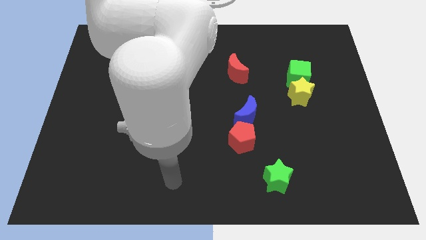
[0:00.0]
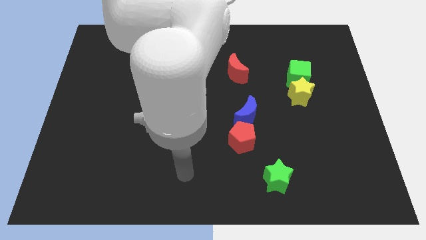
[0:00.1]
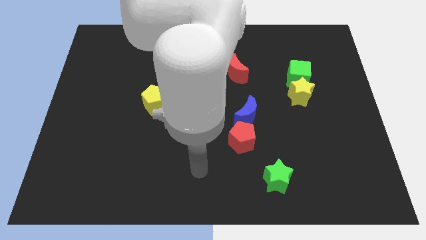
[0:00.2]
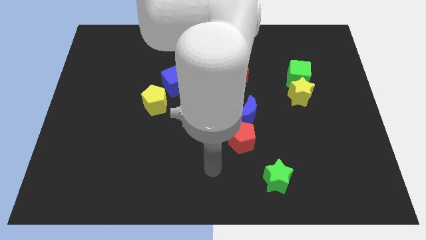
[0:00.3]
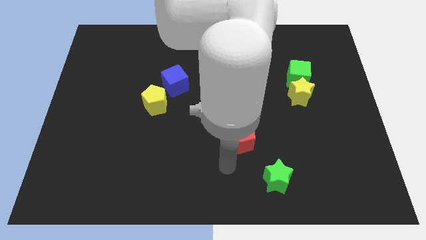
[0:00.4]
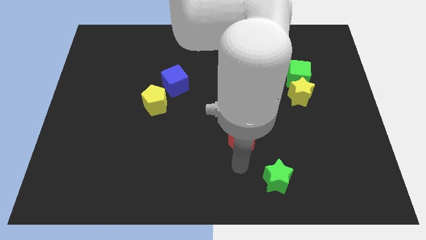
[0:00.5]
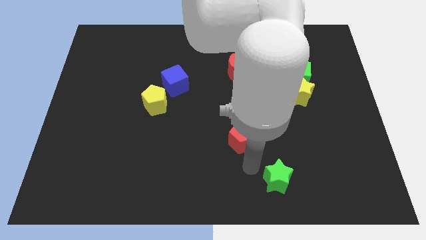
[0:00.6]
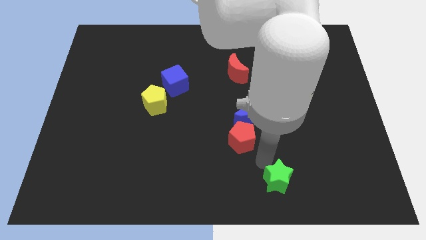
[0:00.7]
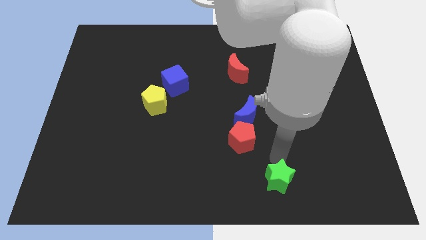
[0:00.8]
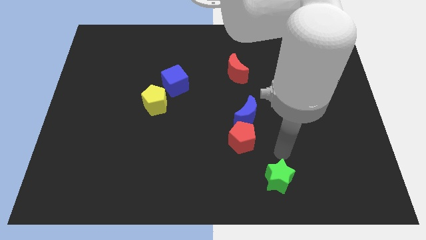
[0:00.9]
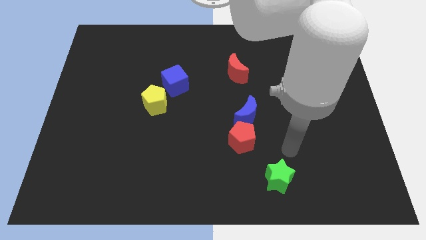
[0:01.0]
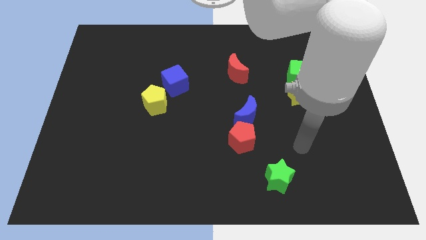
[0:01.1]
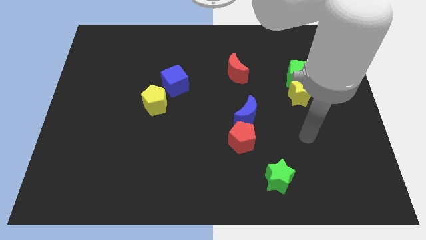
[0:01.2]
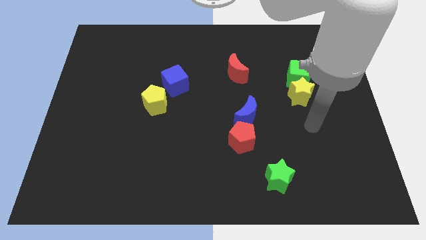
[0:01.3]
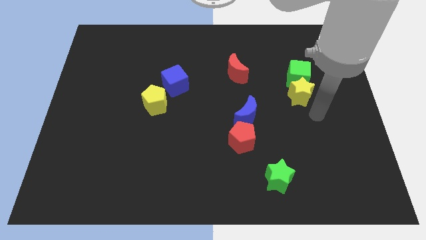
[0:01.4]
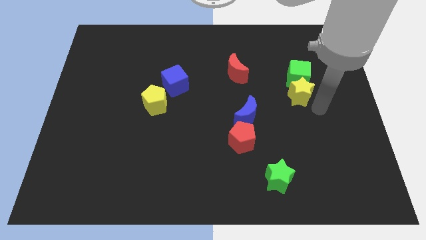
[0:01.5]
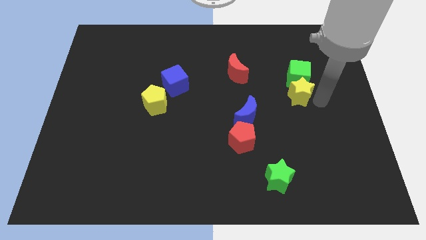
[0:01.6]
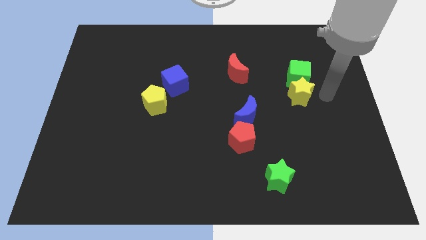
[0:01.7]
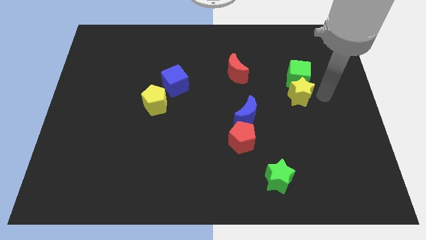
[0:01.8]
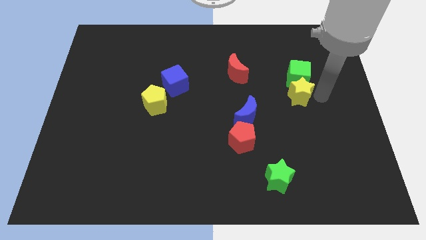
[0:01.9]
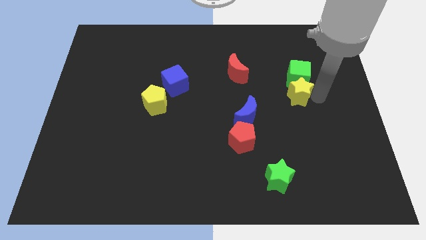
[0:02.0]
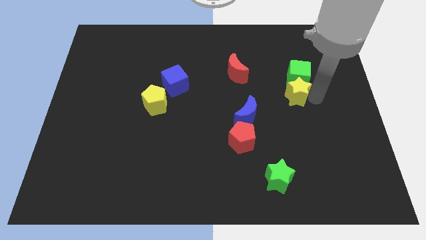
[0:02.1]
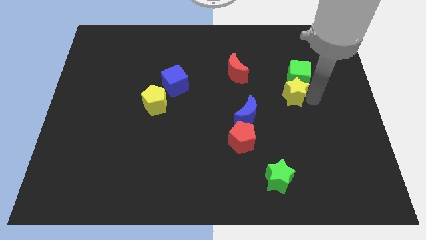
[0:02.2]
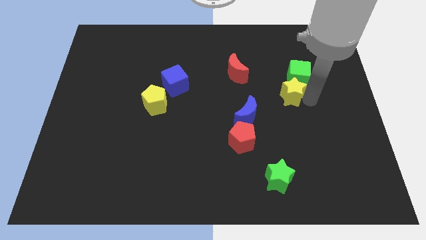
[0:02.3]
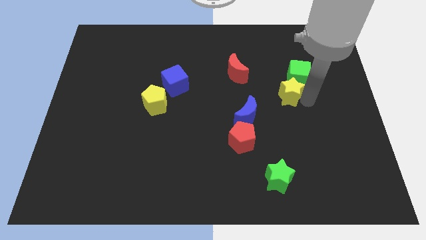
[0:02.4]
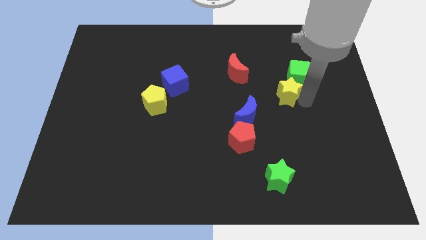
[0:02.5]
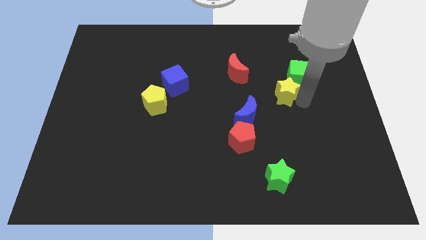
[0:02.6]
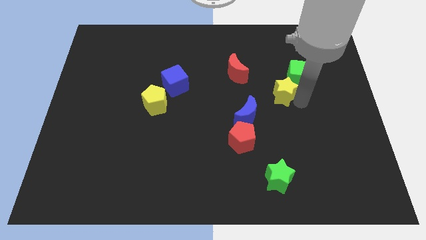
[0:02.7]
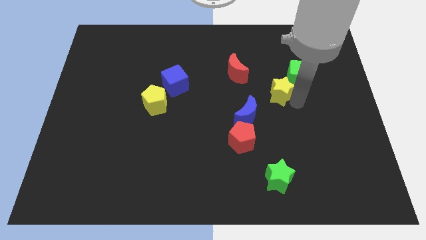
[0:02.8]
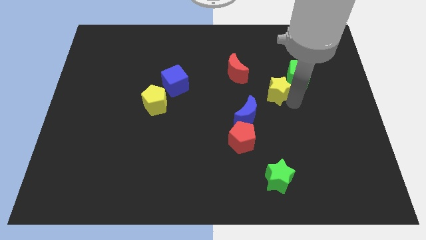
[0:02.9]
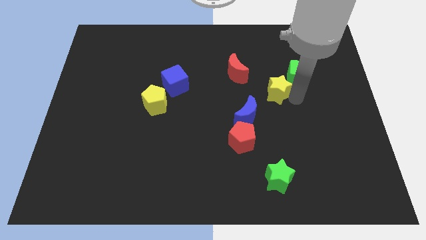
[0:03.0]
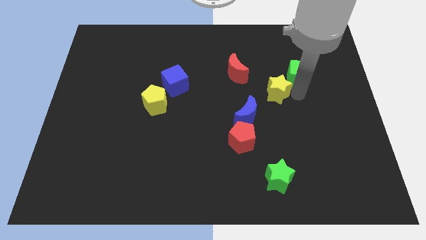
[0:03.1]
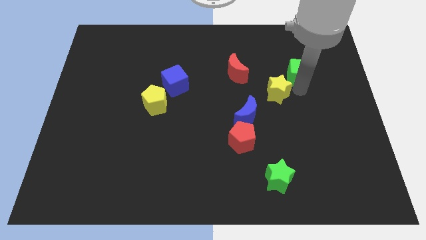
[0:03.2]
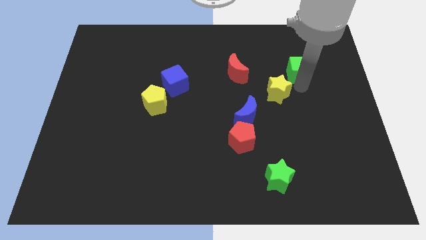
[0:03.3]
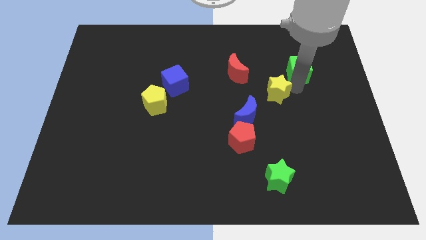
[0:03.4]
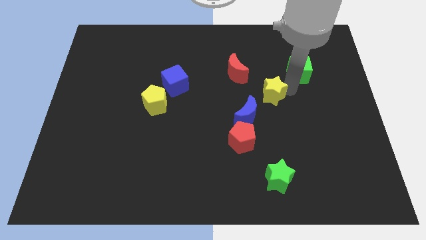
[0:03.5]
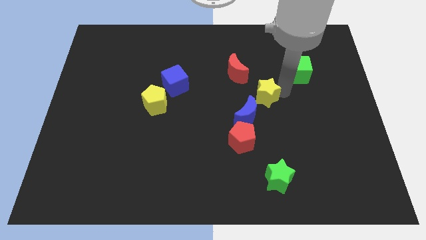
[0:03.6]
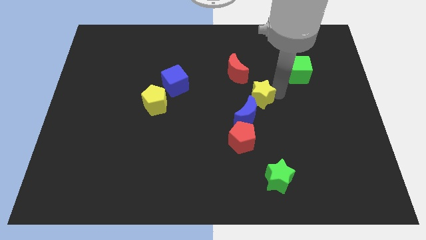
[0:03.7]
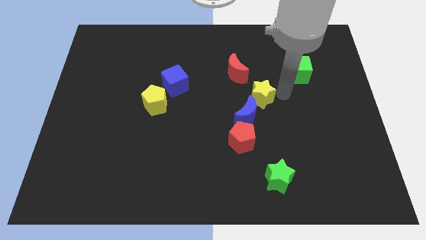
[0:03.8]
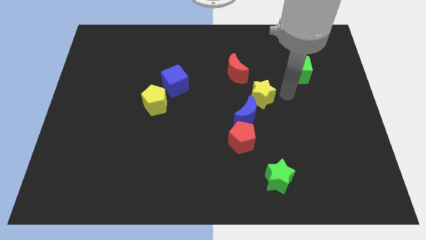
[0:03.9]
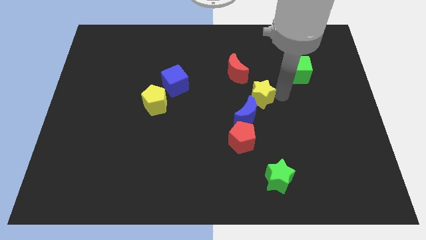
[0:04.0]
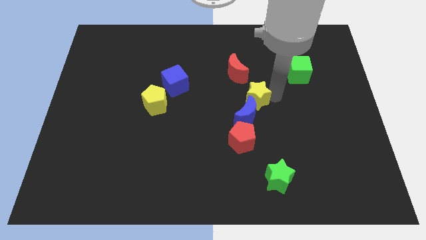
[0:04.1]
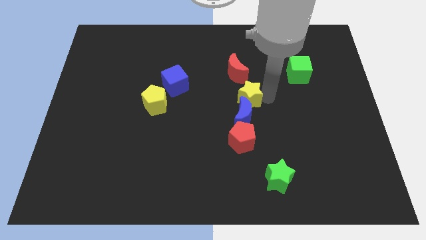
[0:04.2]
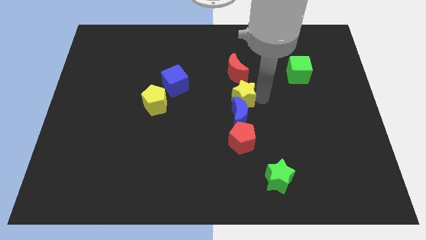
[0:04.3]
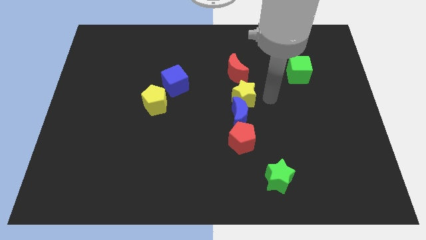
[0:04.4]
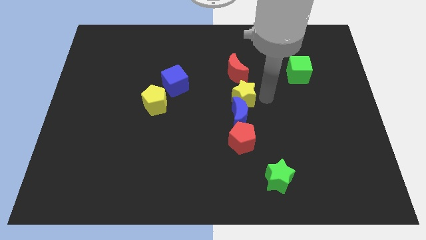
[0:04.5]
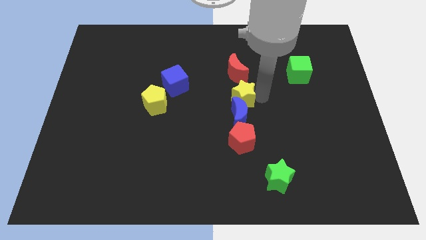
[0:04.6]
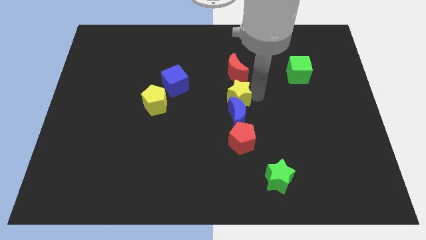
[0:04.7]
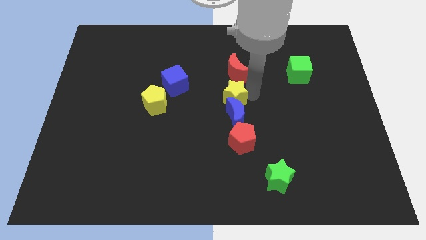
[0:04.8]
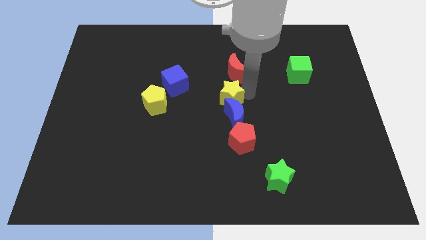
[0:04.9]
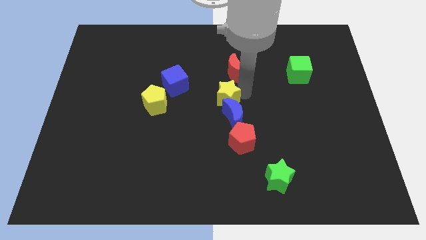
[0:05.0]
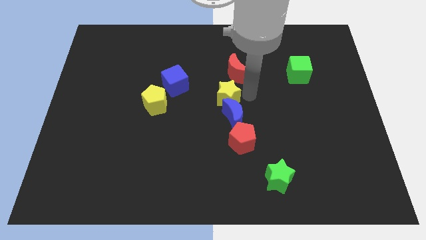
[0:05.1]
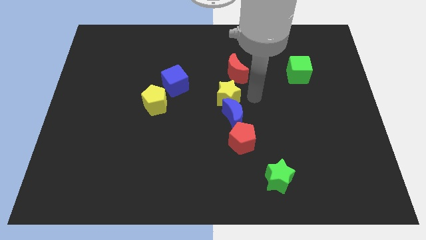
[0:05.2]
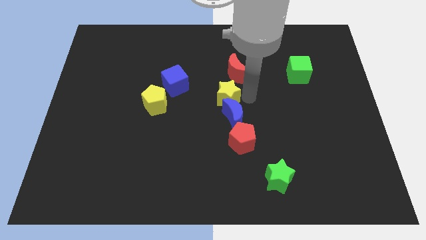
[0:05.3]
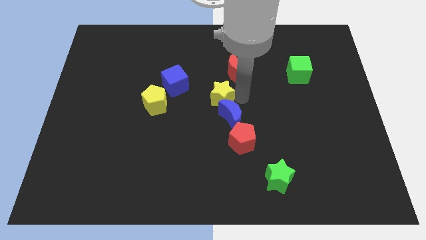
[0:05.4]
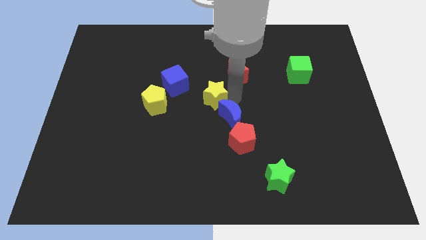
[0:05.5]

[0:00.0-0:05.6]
move the yellow star to the bottom right side of the blue cube

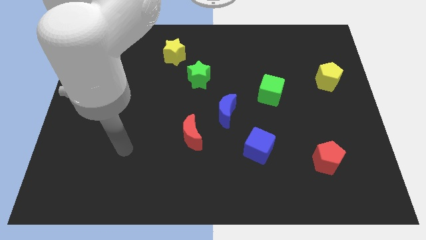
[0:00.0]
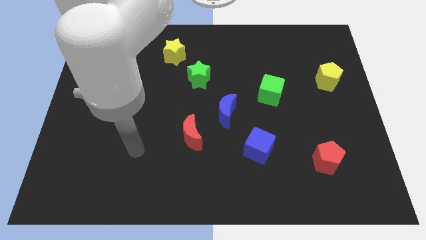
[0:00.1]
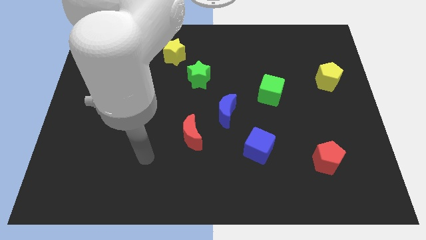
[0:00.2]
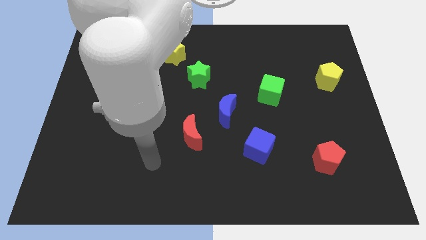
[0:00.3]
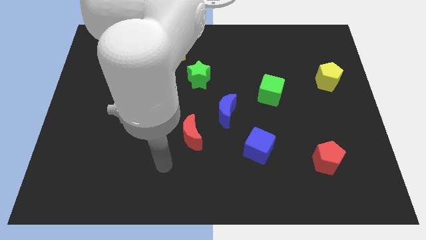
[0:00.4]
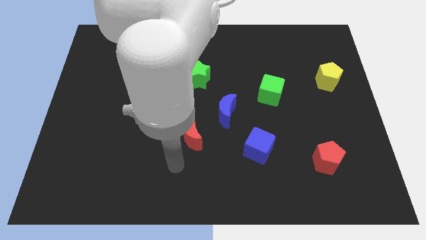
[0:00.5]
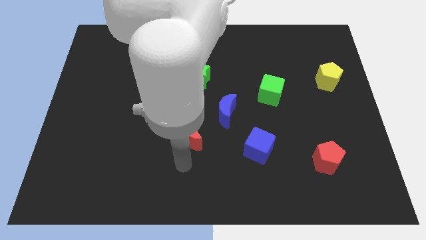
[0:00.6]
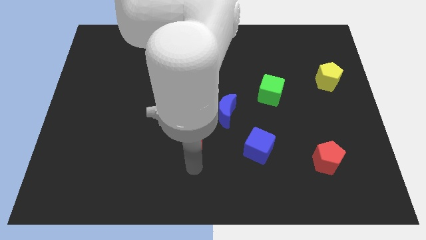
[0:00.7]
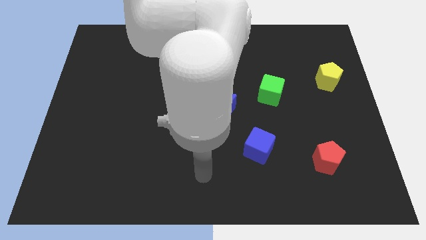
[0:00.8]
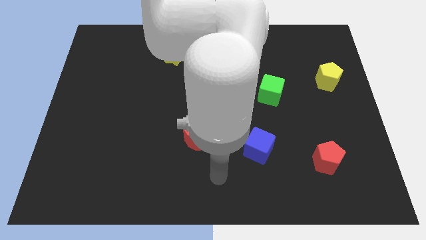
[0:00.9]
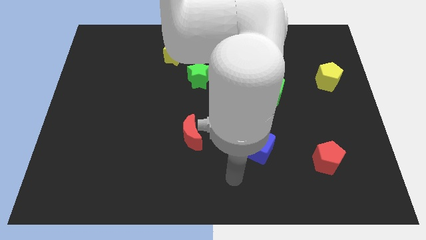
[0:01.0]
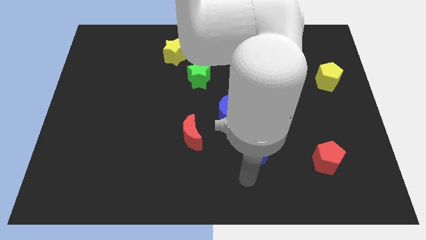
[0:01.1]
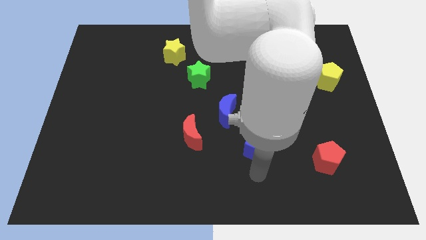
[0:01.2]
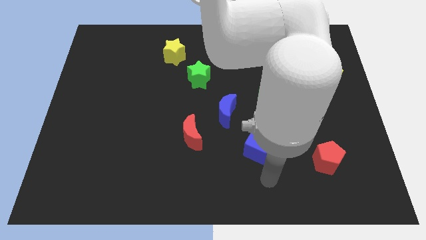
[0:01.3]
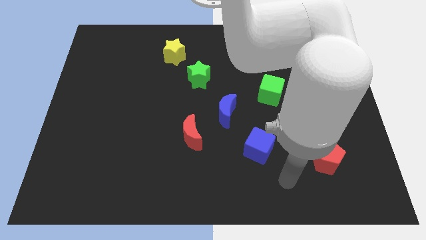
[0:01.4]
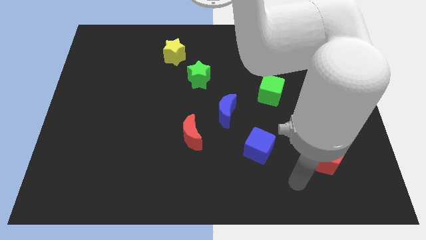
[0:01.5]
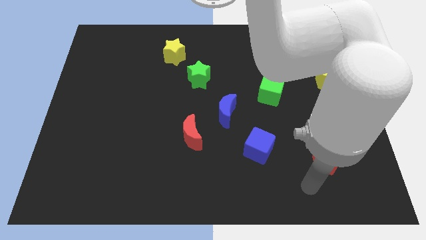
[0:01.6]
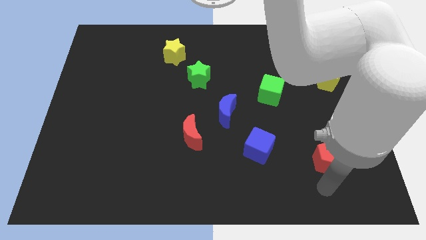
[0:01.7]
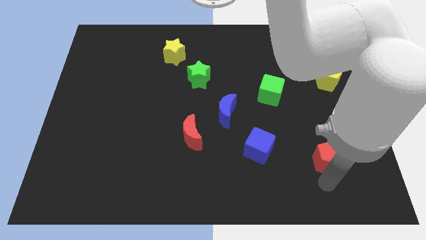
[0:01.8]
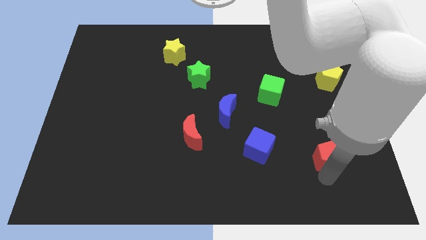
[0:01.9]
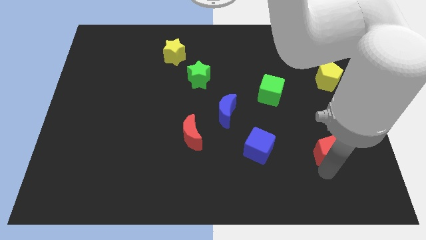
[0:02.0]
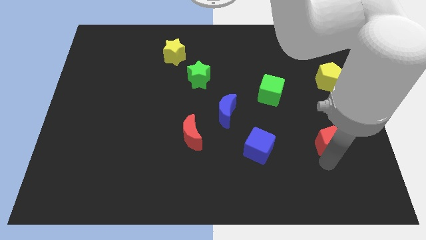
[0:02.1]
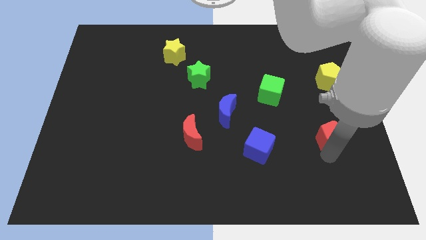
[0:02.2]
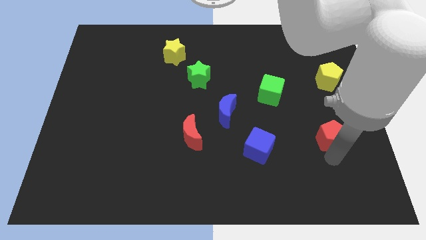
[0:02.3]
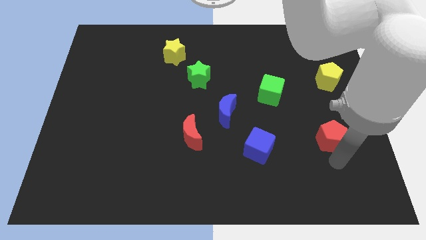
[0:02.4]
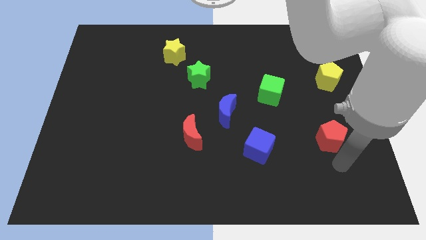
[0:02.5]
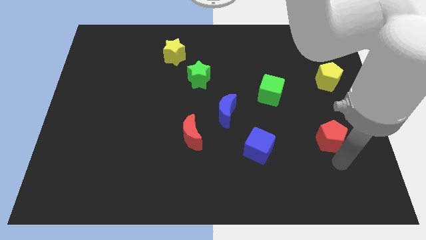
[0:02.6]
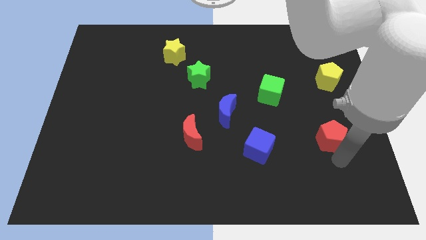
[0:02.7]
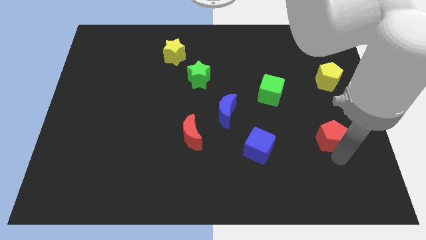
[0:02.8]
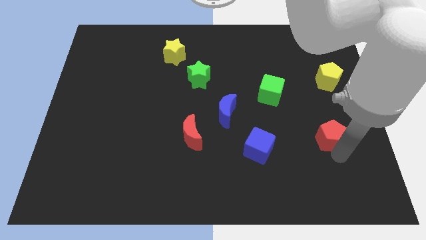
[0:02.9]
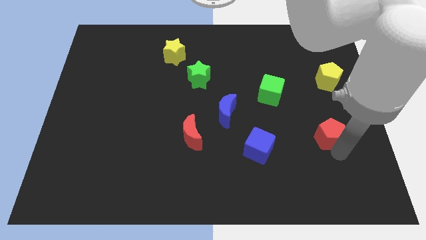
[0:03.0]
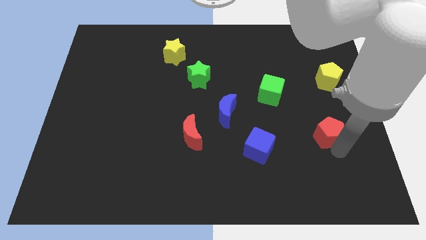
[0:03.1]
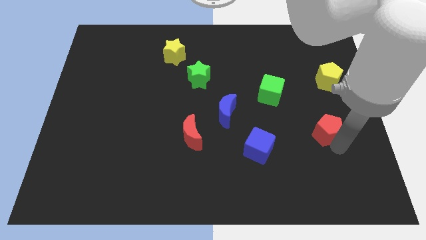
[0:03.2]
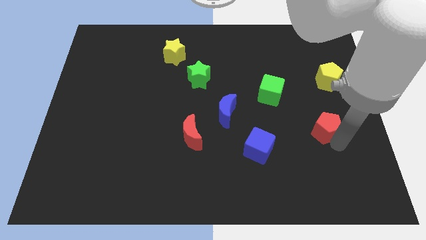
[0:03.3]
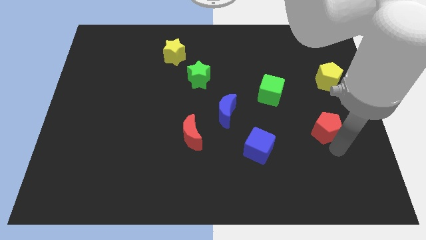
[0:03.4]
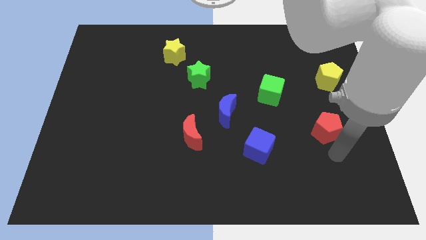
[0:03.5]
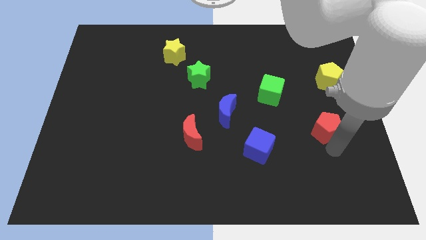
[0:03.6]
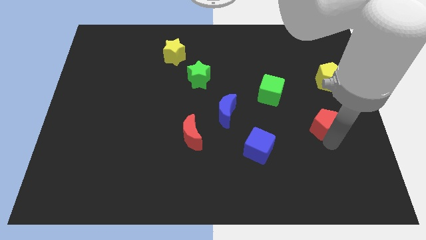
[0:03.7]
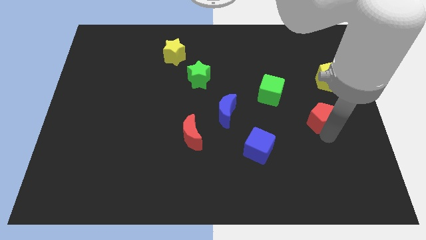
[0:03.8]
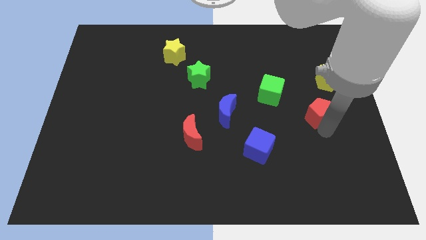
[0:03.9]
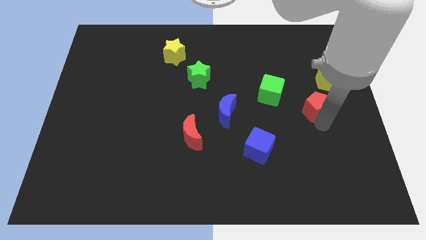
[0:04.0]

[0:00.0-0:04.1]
push the red pentagon to the bottom left of the yellow pentagon
